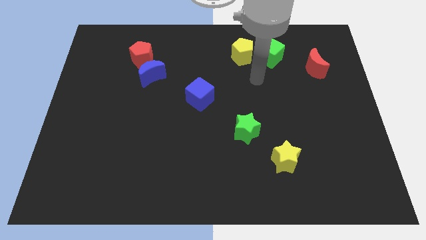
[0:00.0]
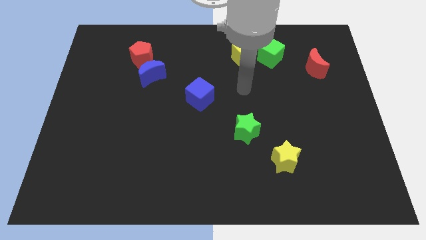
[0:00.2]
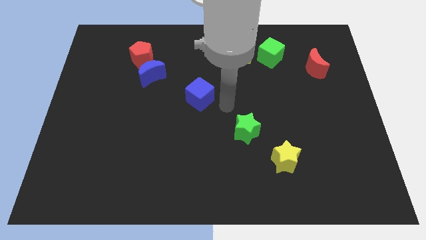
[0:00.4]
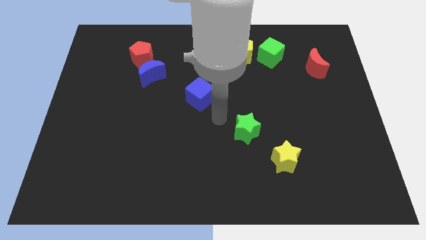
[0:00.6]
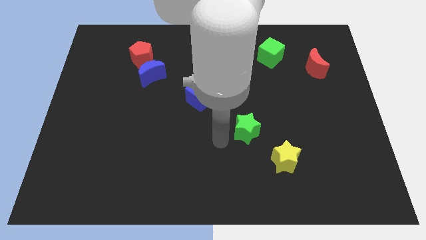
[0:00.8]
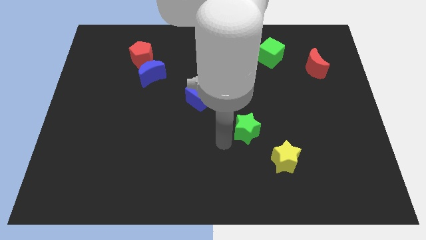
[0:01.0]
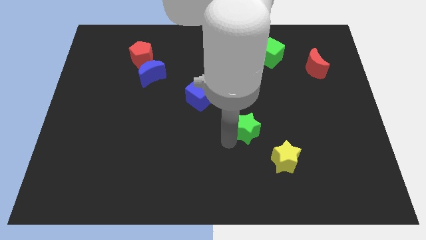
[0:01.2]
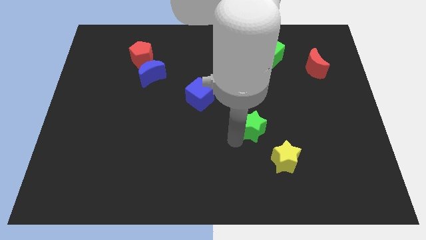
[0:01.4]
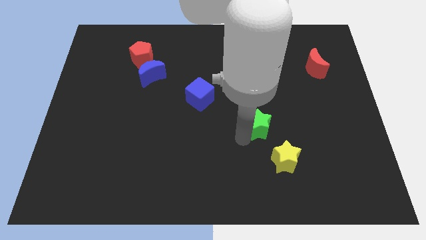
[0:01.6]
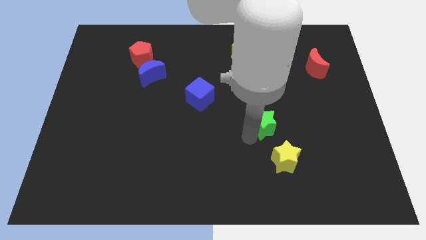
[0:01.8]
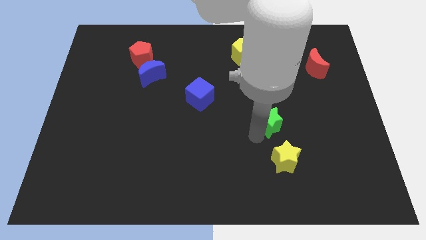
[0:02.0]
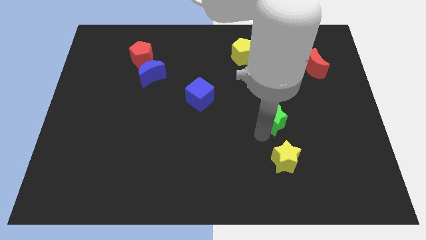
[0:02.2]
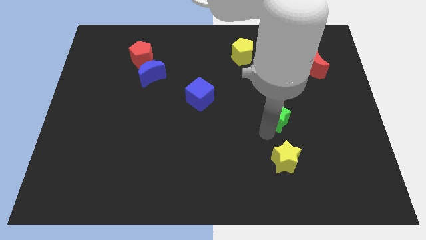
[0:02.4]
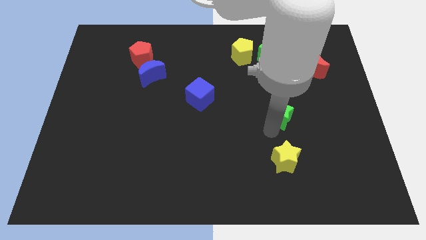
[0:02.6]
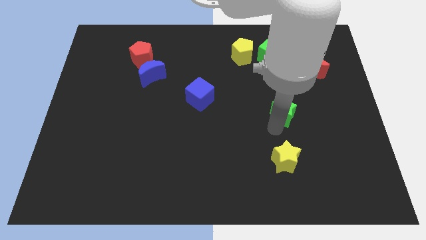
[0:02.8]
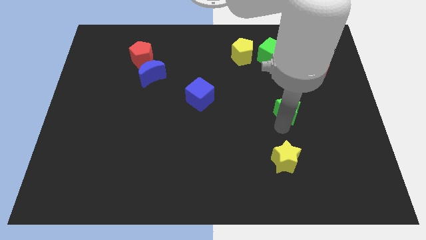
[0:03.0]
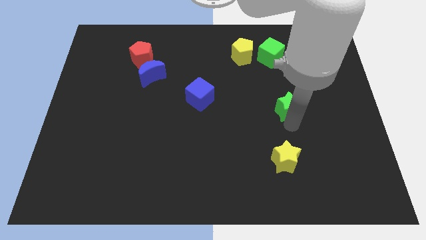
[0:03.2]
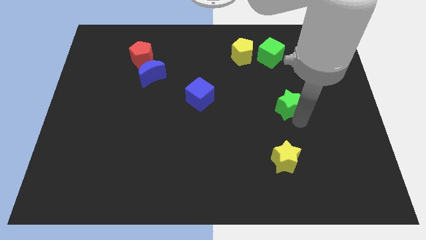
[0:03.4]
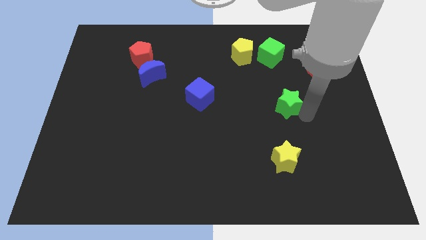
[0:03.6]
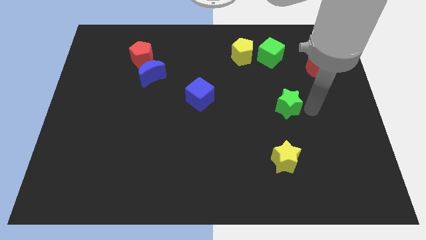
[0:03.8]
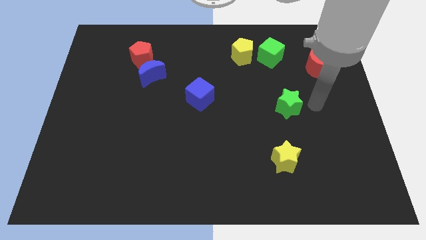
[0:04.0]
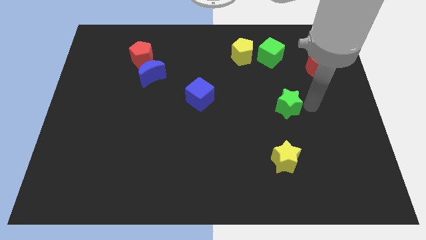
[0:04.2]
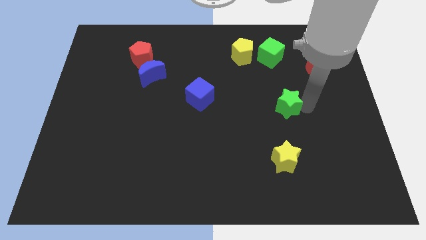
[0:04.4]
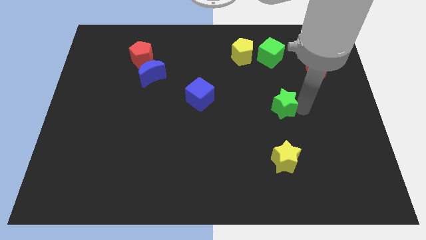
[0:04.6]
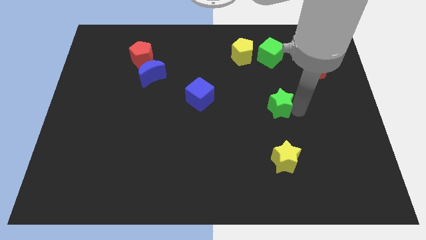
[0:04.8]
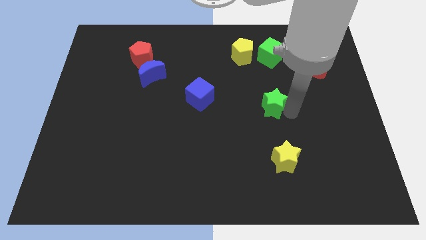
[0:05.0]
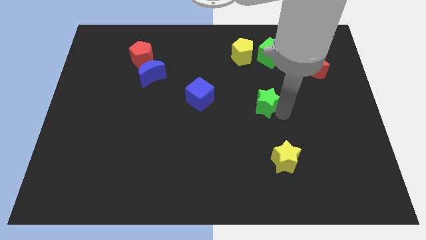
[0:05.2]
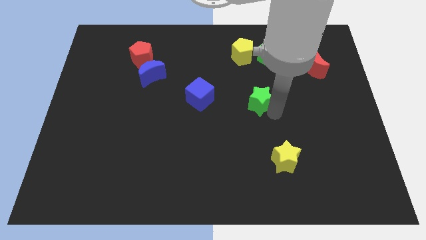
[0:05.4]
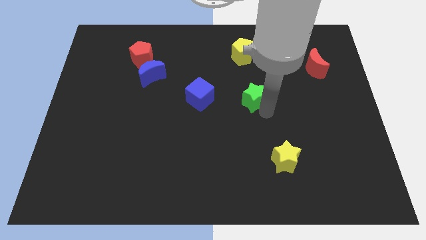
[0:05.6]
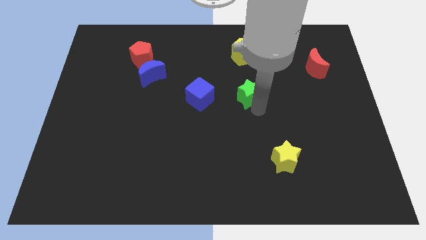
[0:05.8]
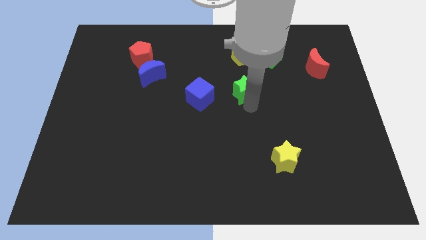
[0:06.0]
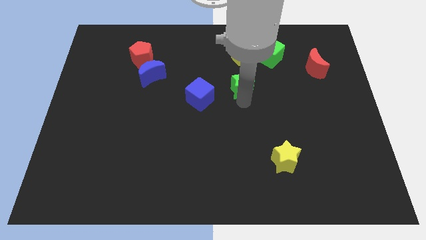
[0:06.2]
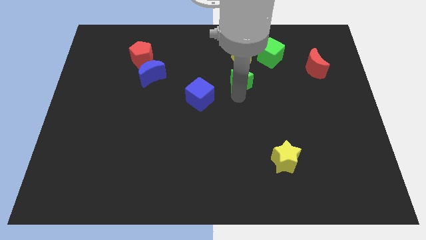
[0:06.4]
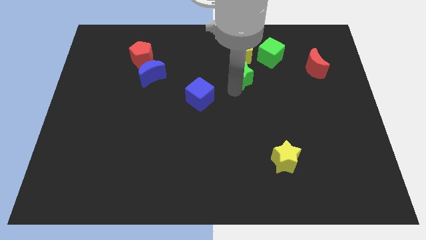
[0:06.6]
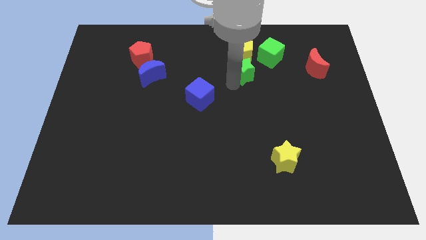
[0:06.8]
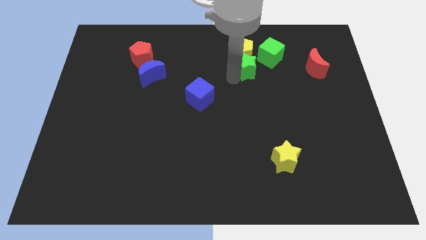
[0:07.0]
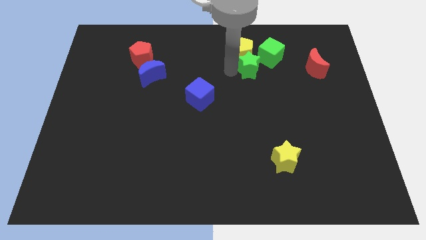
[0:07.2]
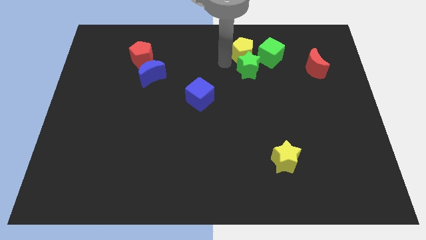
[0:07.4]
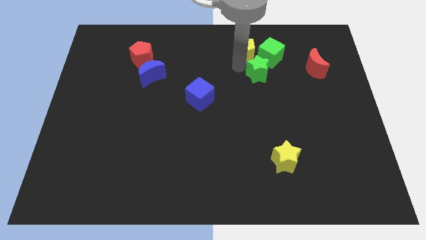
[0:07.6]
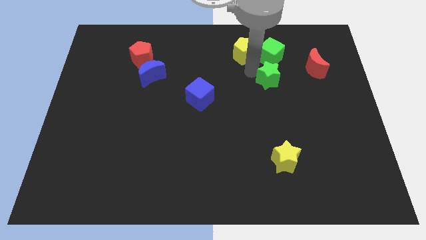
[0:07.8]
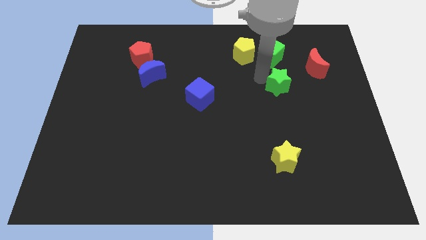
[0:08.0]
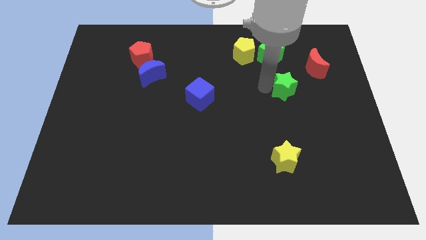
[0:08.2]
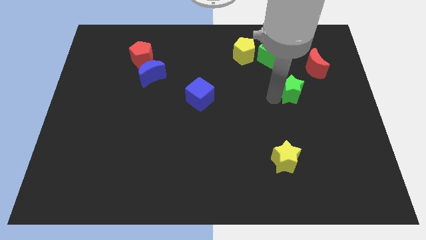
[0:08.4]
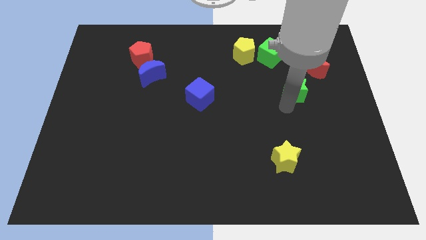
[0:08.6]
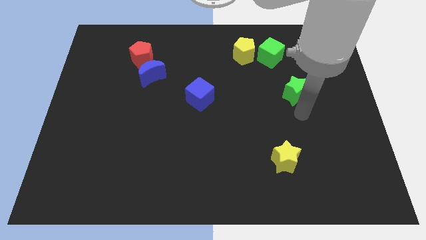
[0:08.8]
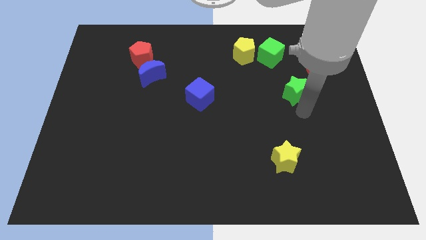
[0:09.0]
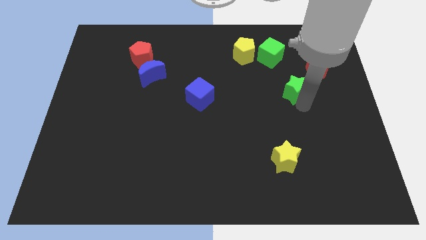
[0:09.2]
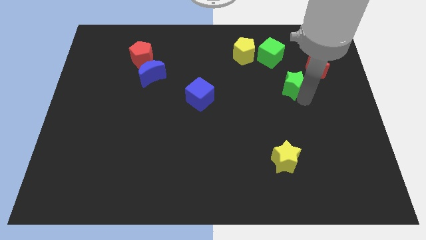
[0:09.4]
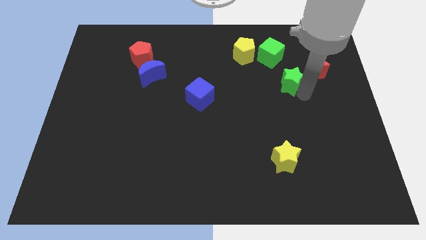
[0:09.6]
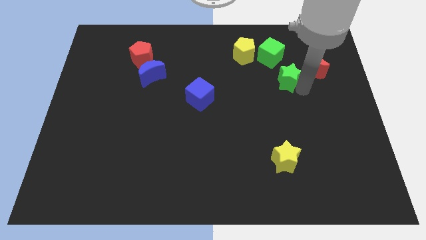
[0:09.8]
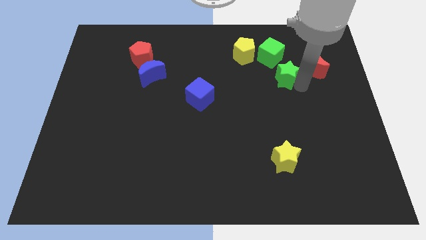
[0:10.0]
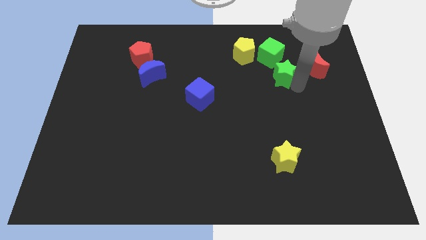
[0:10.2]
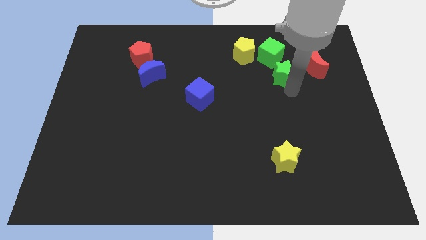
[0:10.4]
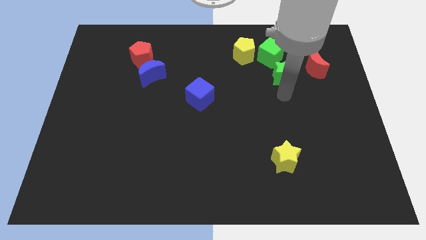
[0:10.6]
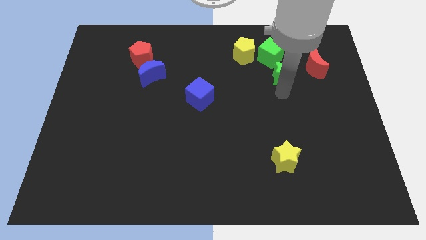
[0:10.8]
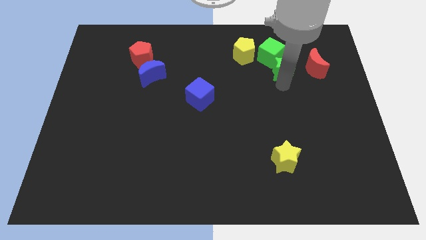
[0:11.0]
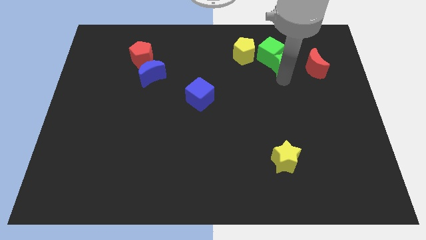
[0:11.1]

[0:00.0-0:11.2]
put the green star to the right side of the yellow pentagon

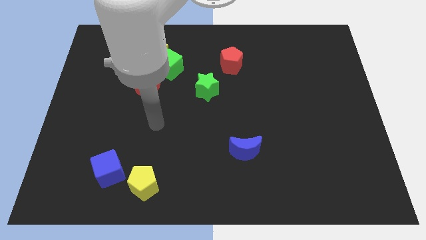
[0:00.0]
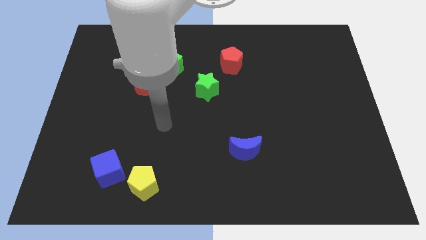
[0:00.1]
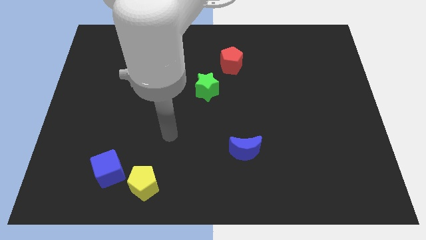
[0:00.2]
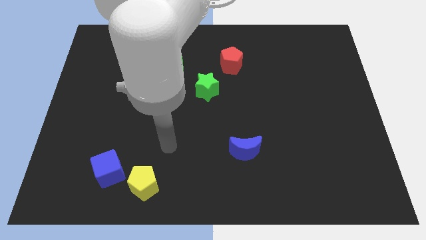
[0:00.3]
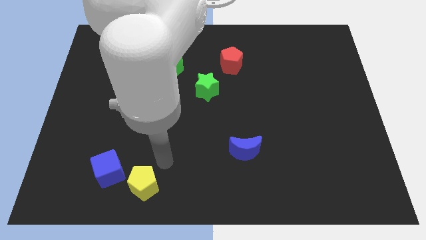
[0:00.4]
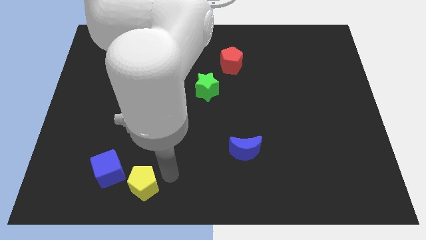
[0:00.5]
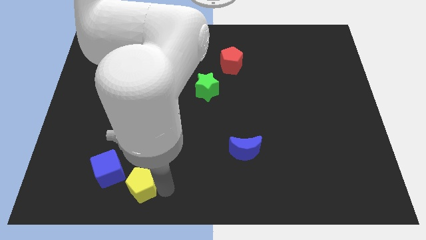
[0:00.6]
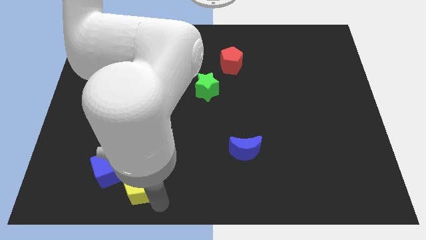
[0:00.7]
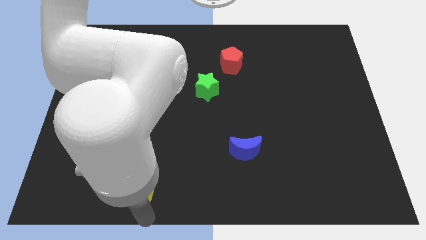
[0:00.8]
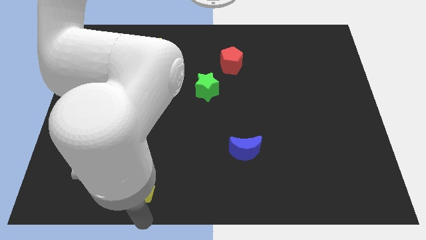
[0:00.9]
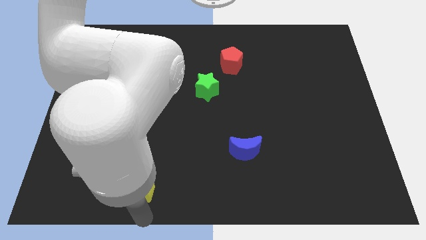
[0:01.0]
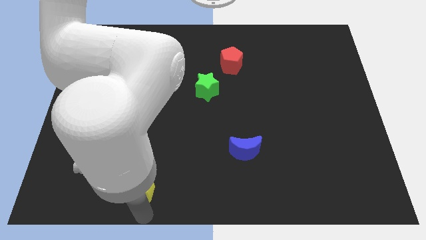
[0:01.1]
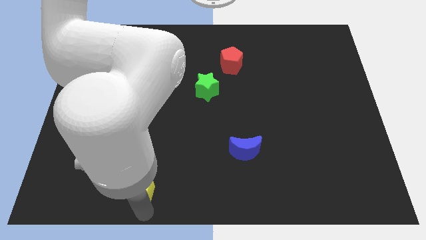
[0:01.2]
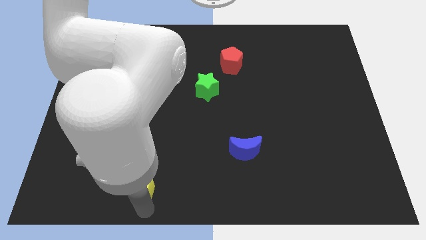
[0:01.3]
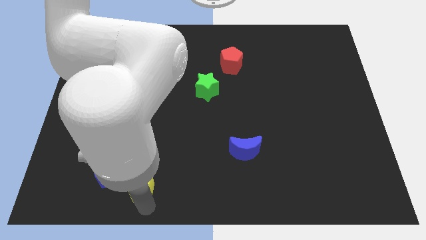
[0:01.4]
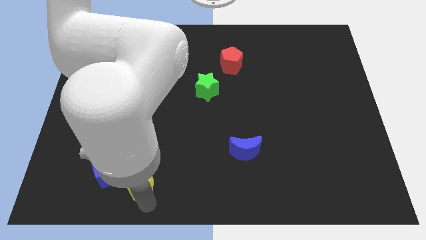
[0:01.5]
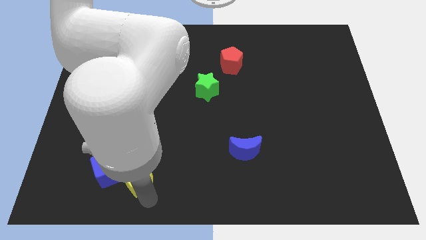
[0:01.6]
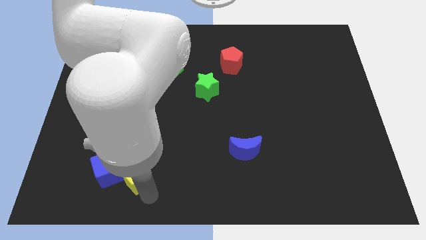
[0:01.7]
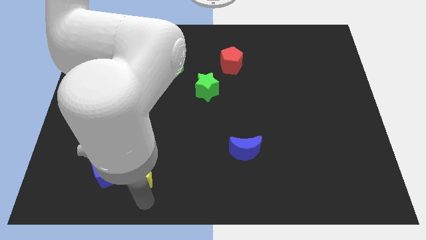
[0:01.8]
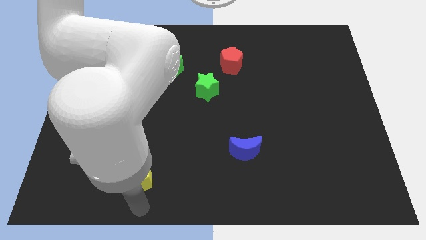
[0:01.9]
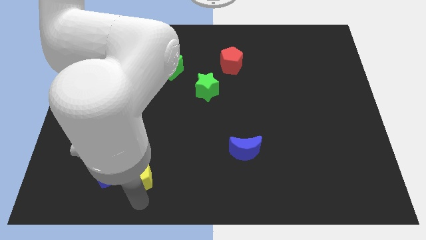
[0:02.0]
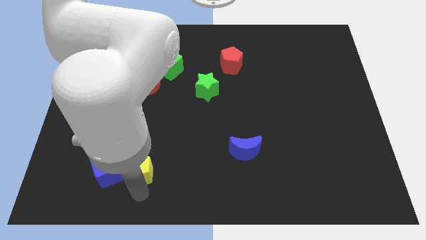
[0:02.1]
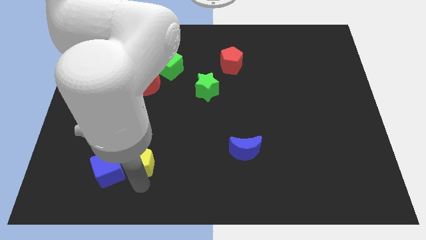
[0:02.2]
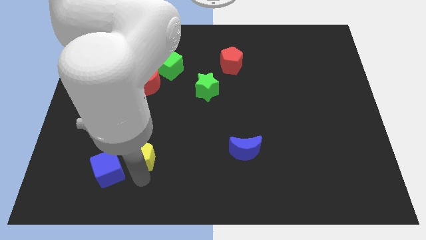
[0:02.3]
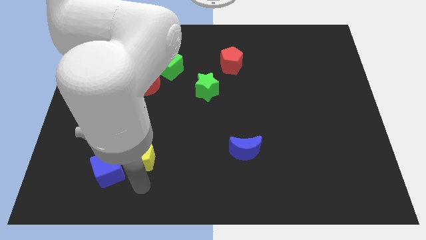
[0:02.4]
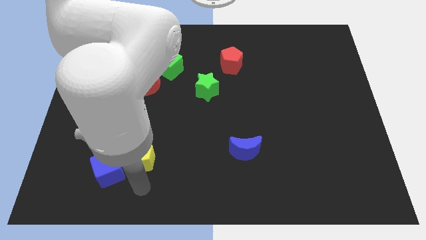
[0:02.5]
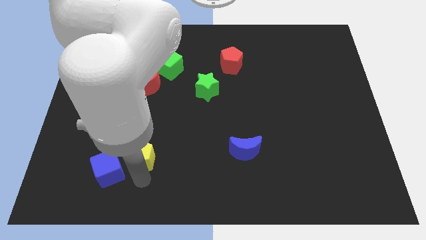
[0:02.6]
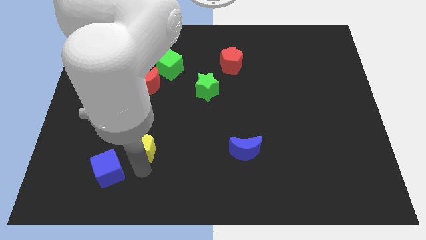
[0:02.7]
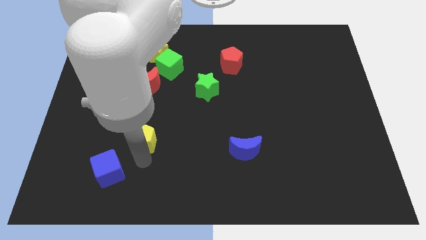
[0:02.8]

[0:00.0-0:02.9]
move the yellow pentagon below the red moon
